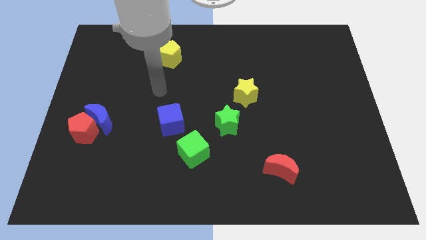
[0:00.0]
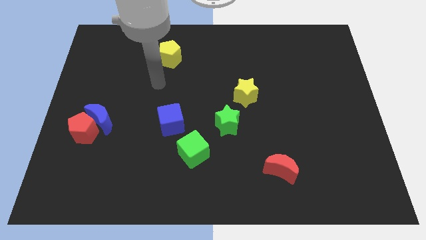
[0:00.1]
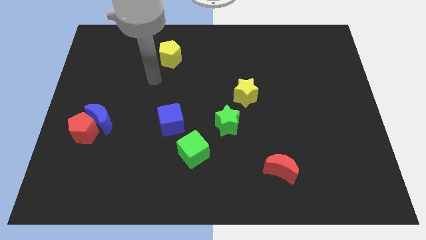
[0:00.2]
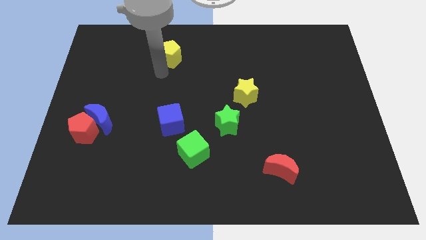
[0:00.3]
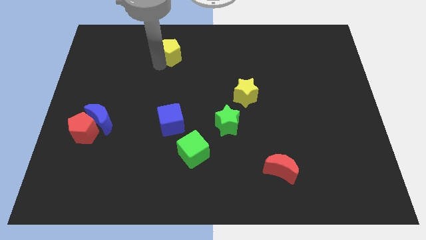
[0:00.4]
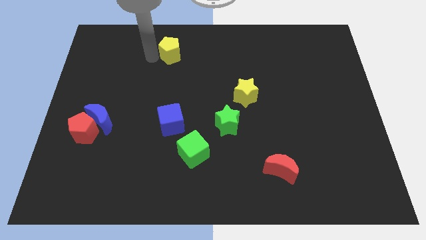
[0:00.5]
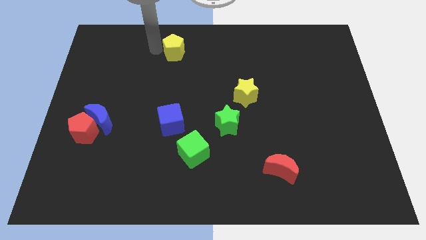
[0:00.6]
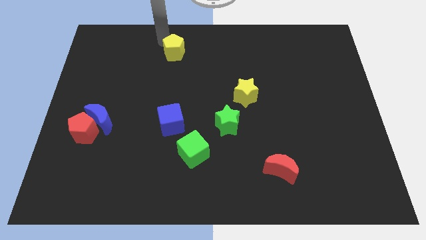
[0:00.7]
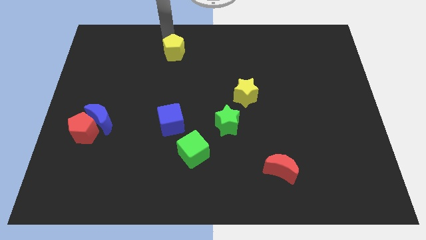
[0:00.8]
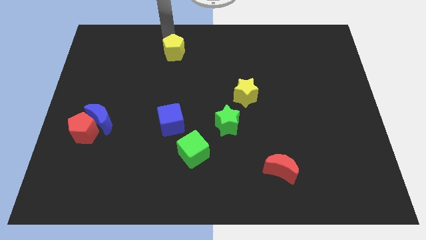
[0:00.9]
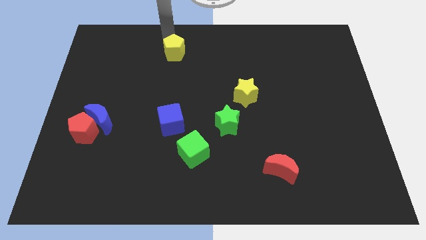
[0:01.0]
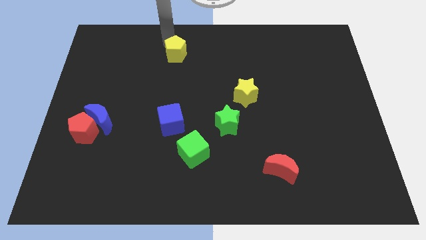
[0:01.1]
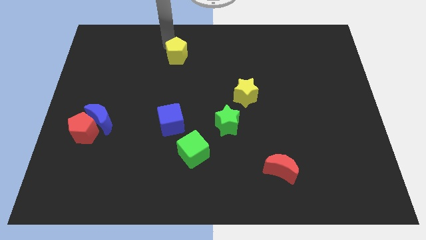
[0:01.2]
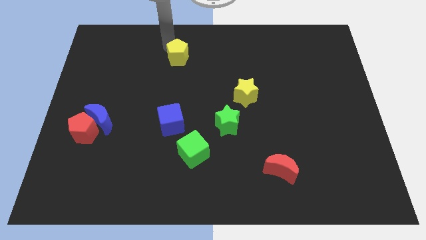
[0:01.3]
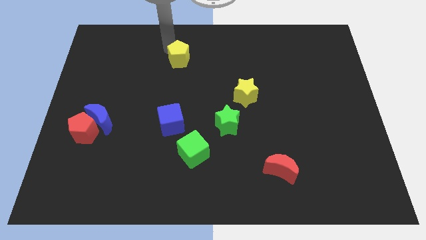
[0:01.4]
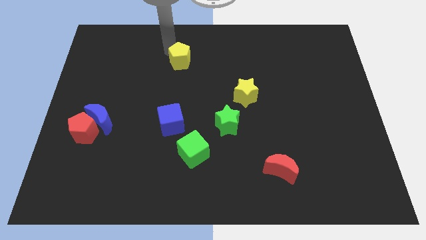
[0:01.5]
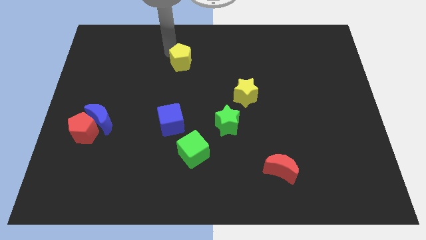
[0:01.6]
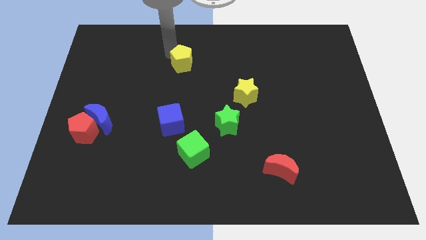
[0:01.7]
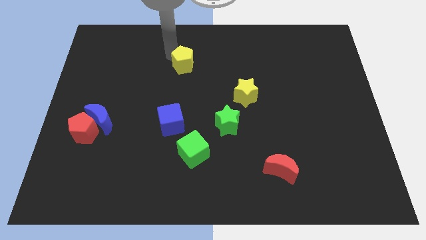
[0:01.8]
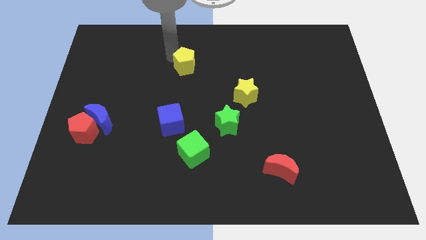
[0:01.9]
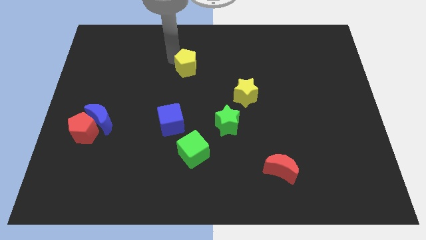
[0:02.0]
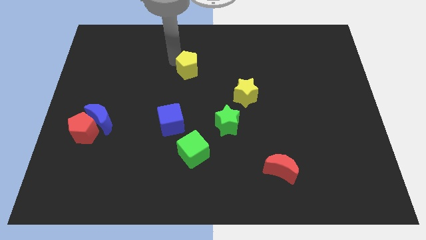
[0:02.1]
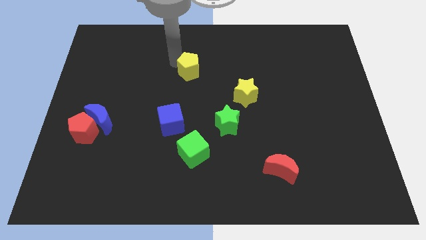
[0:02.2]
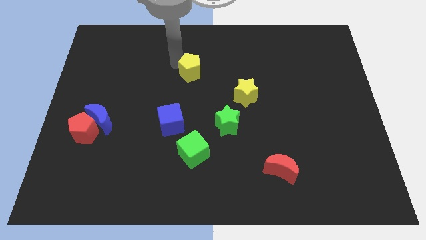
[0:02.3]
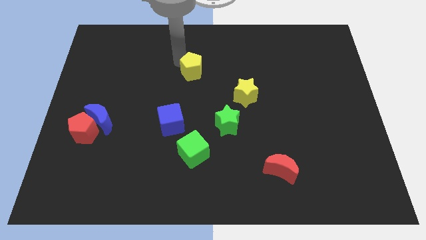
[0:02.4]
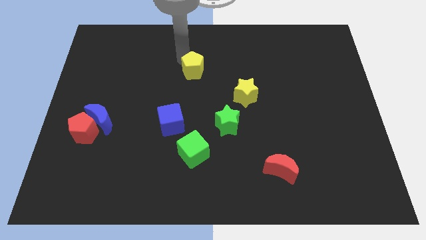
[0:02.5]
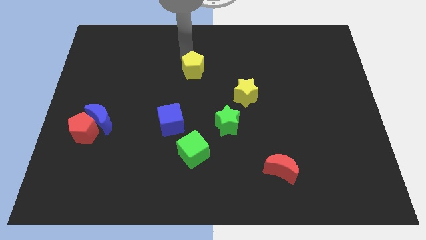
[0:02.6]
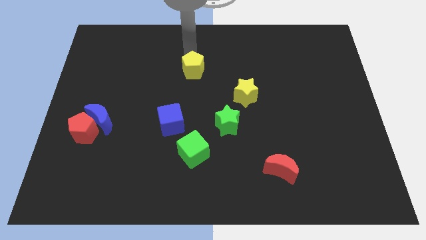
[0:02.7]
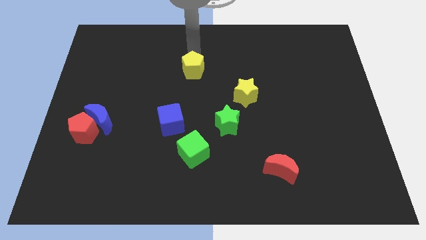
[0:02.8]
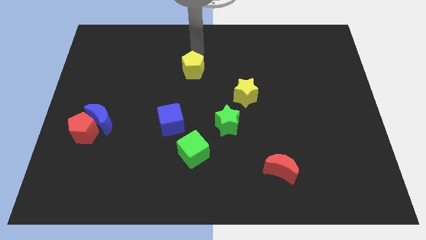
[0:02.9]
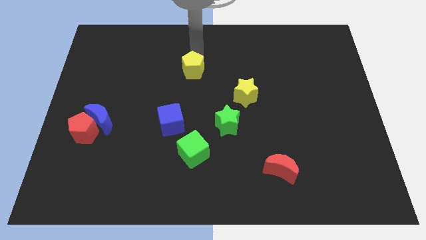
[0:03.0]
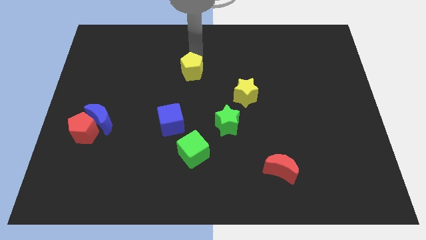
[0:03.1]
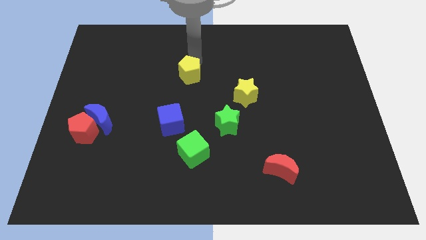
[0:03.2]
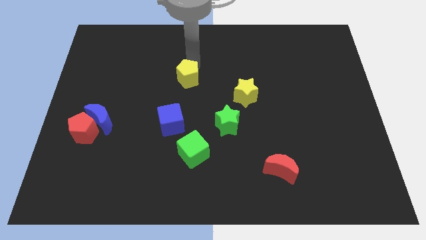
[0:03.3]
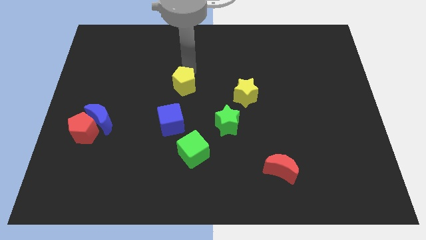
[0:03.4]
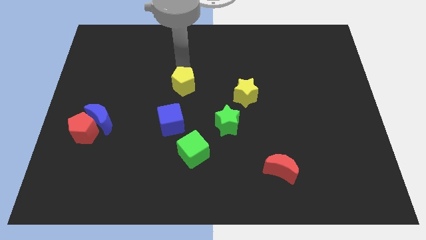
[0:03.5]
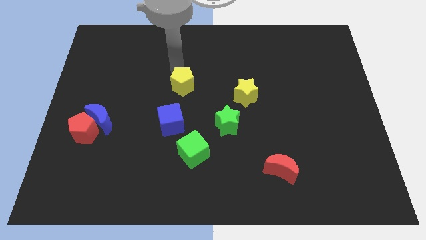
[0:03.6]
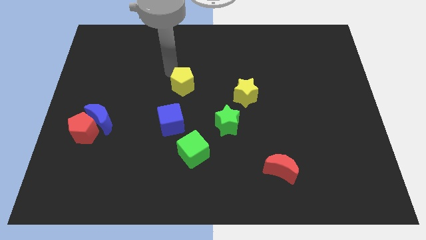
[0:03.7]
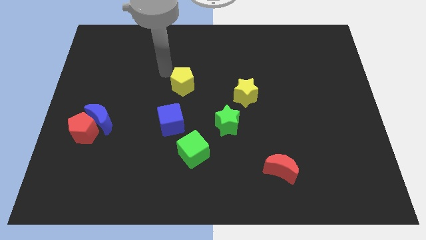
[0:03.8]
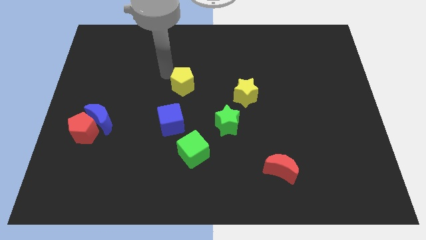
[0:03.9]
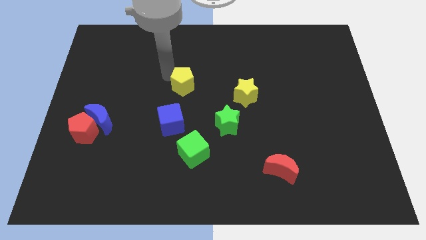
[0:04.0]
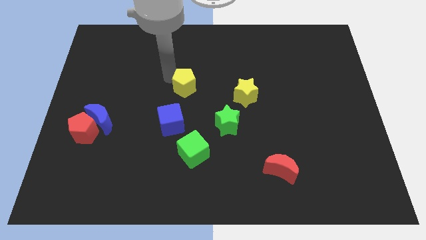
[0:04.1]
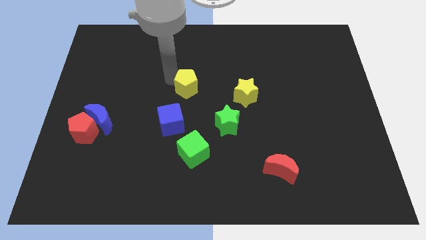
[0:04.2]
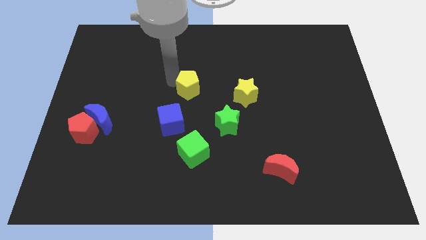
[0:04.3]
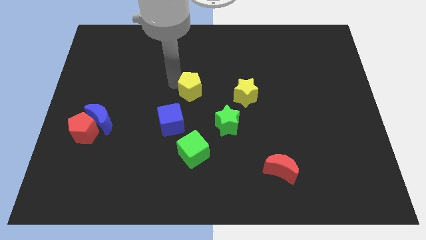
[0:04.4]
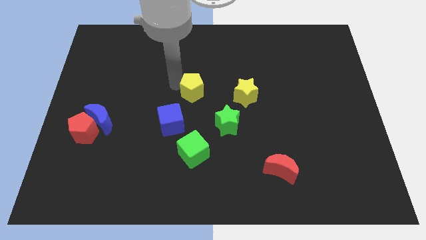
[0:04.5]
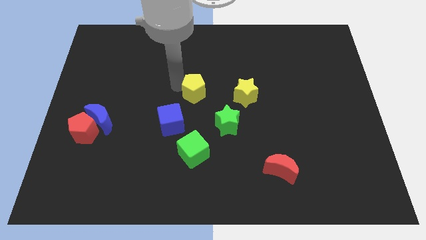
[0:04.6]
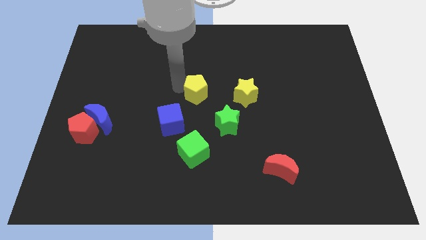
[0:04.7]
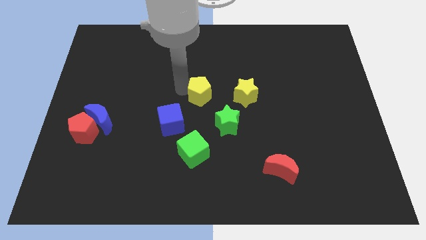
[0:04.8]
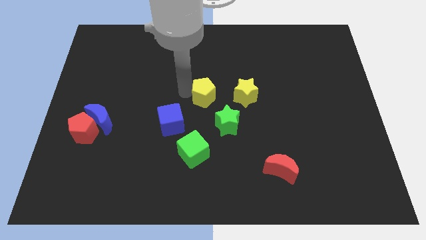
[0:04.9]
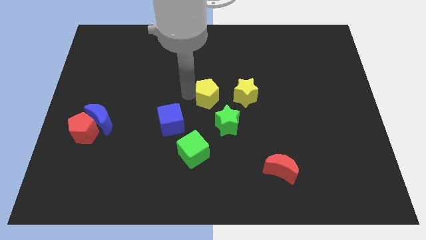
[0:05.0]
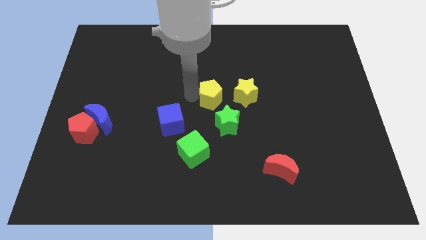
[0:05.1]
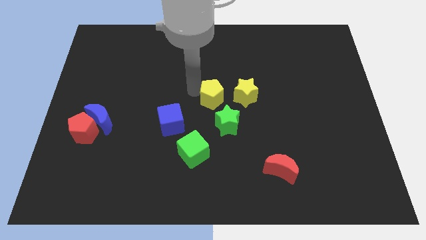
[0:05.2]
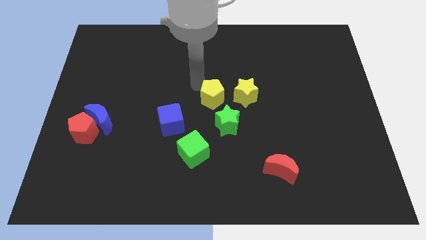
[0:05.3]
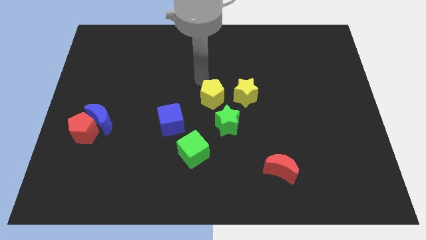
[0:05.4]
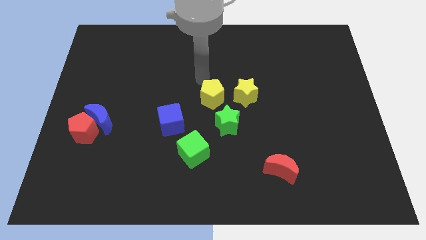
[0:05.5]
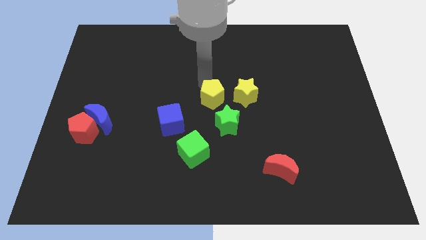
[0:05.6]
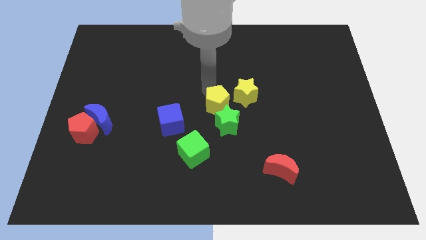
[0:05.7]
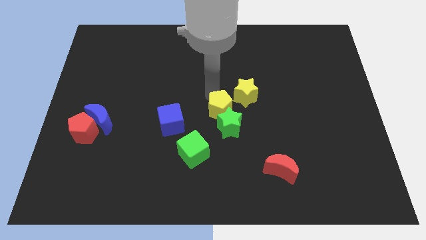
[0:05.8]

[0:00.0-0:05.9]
slide the yellow pentagon close to the green star

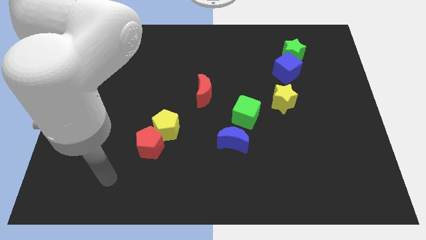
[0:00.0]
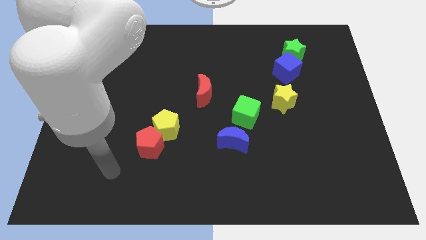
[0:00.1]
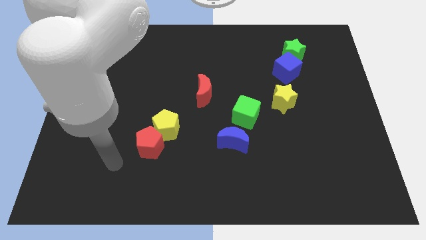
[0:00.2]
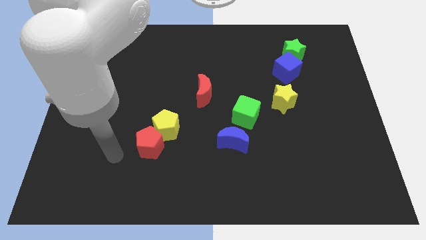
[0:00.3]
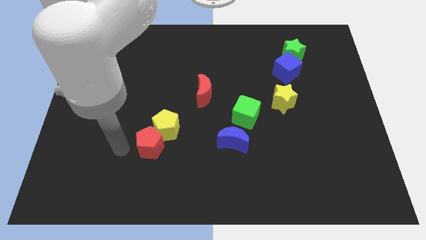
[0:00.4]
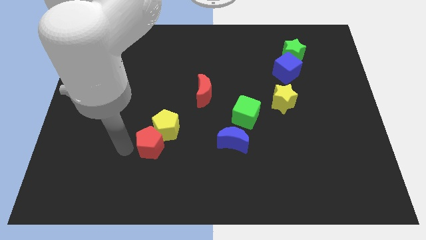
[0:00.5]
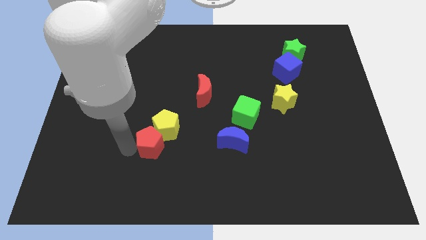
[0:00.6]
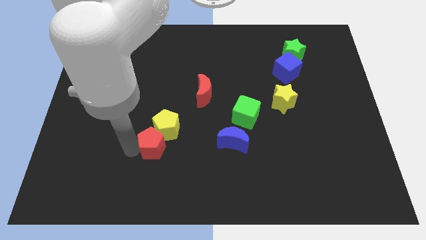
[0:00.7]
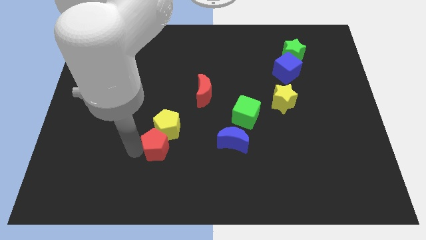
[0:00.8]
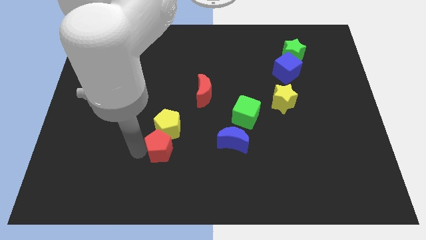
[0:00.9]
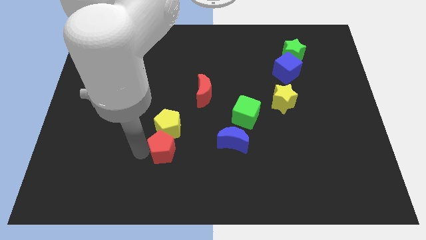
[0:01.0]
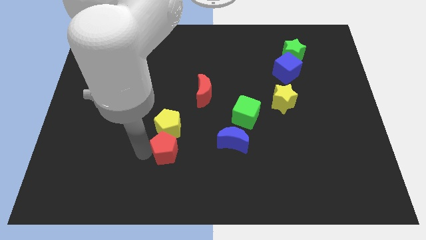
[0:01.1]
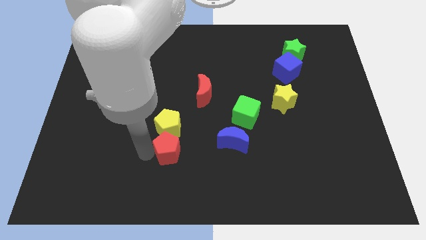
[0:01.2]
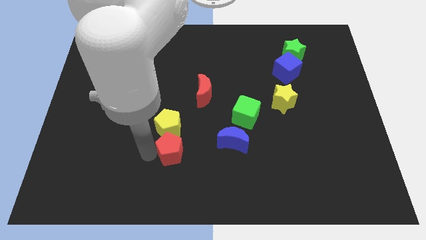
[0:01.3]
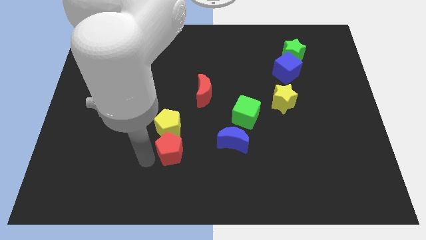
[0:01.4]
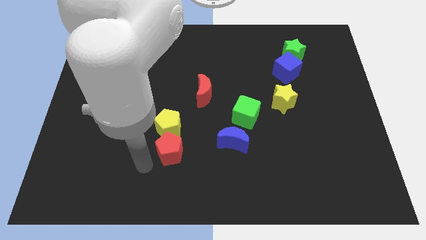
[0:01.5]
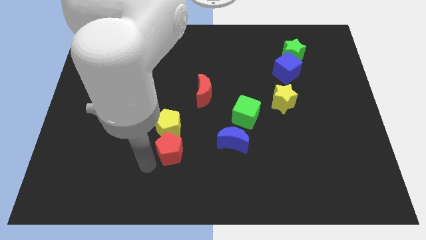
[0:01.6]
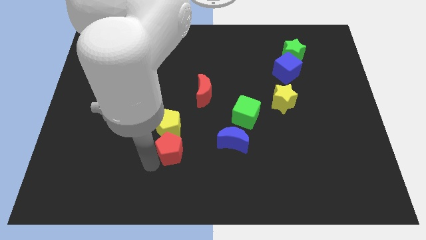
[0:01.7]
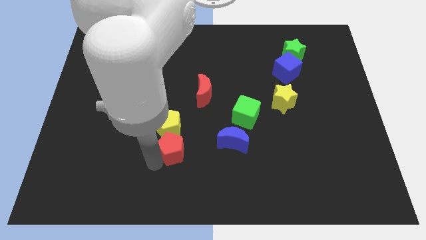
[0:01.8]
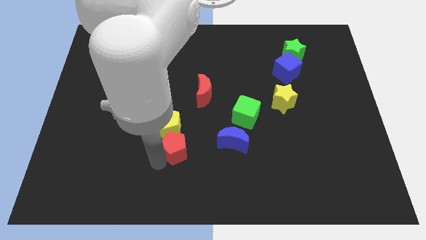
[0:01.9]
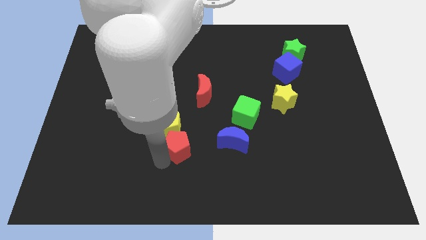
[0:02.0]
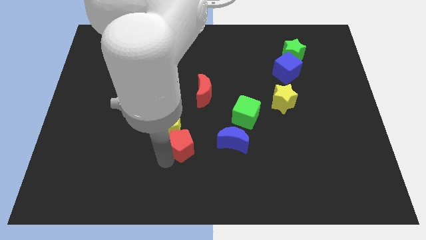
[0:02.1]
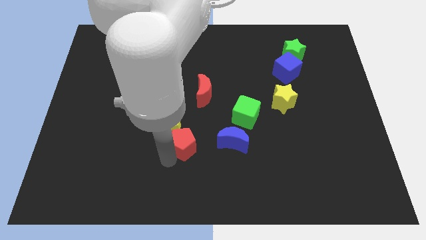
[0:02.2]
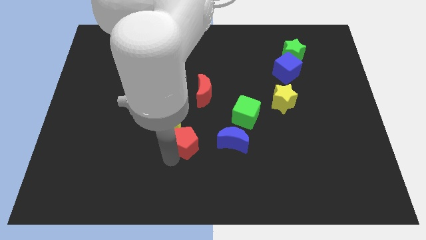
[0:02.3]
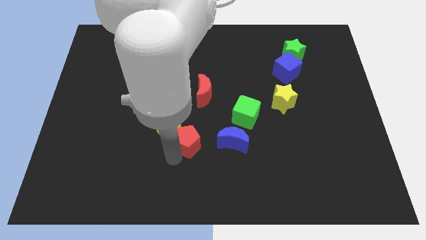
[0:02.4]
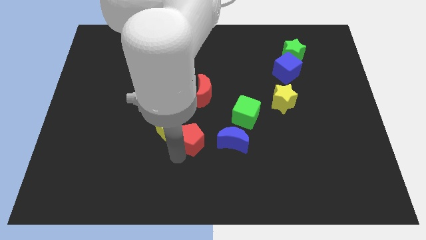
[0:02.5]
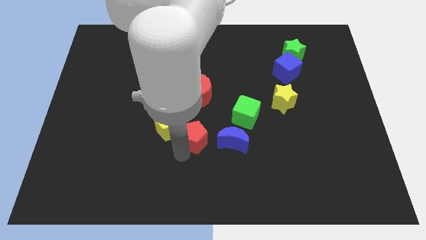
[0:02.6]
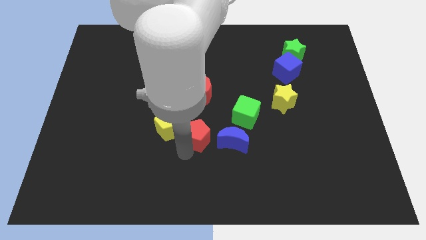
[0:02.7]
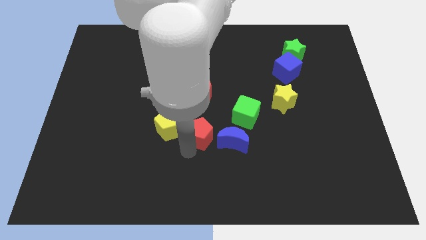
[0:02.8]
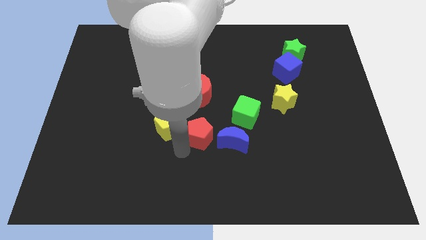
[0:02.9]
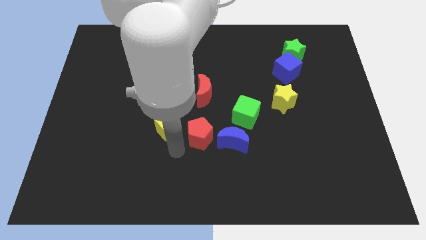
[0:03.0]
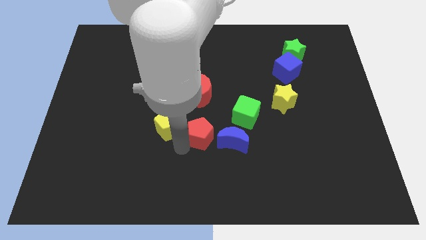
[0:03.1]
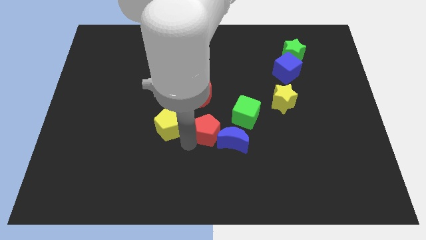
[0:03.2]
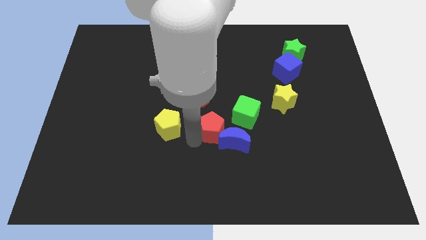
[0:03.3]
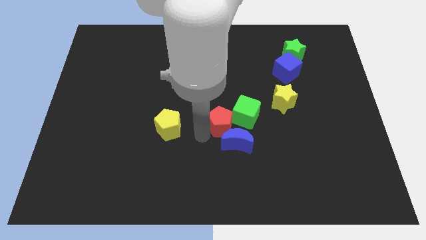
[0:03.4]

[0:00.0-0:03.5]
push the red pentagon to the green cube
